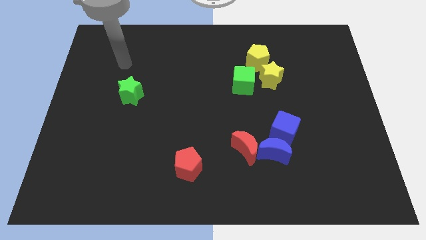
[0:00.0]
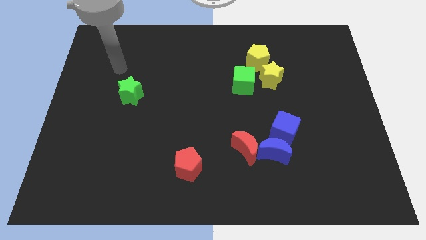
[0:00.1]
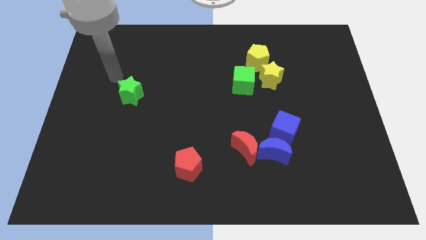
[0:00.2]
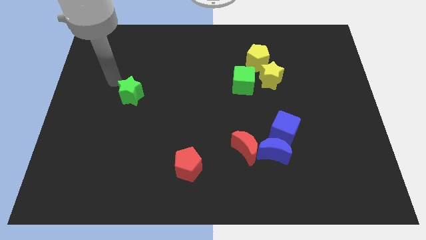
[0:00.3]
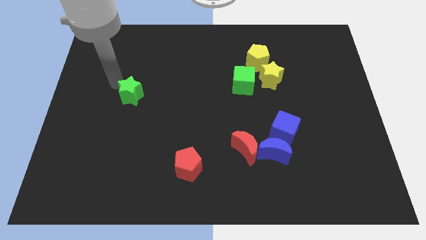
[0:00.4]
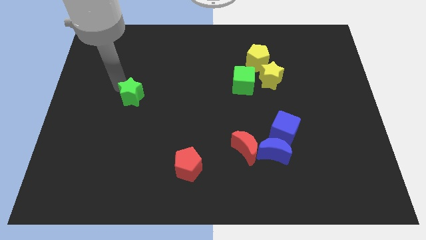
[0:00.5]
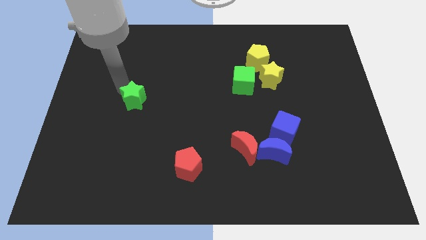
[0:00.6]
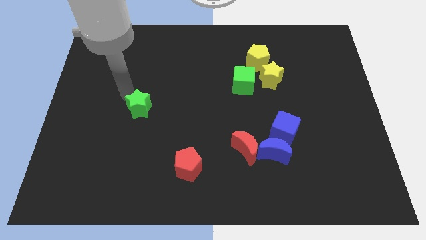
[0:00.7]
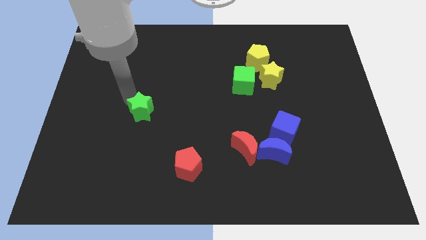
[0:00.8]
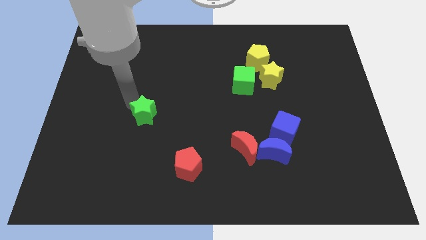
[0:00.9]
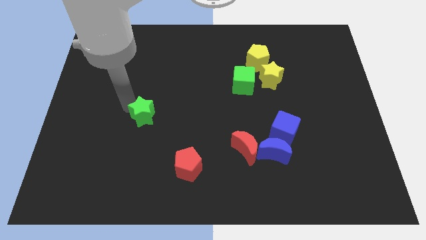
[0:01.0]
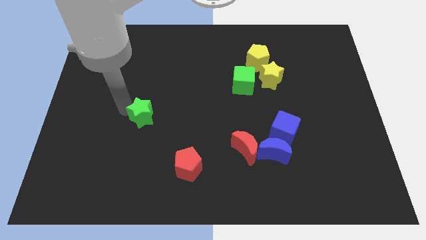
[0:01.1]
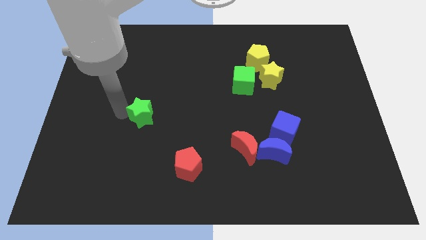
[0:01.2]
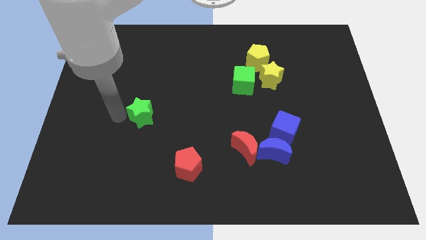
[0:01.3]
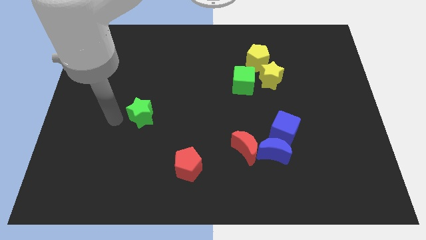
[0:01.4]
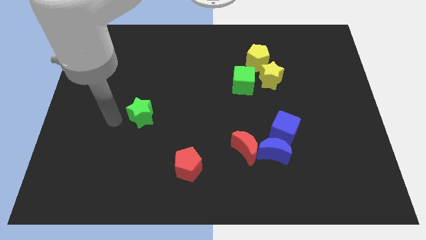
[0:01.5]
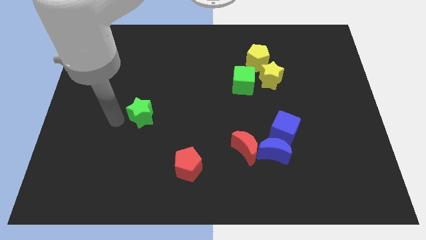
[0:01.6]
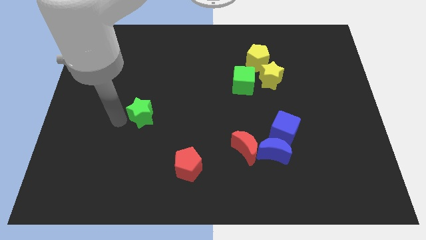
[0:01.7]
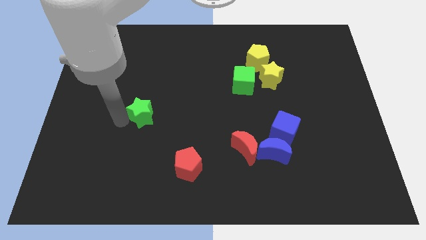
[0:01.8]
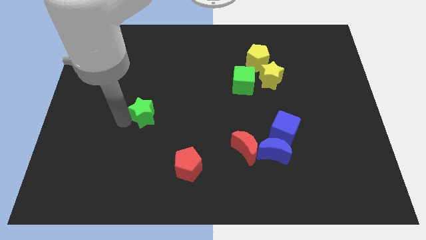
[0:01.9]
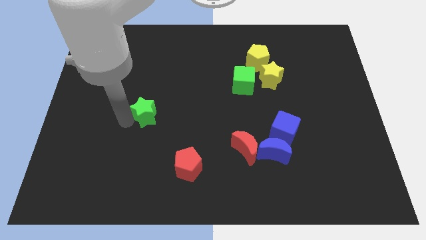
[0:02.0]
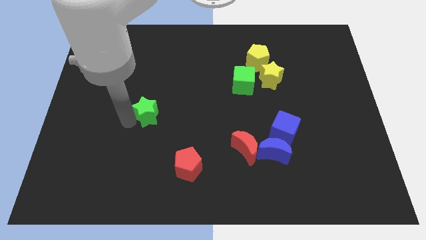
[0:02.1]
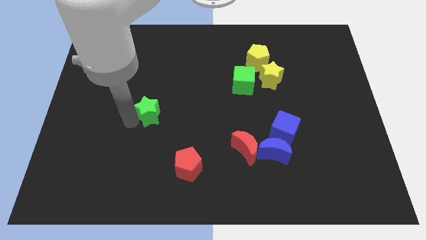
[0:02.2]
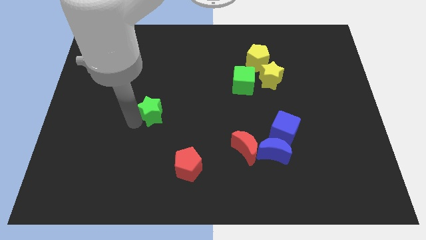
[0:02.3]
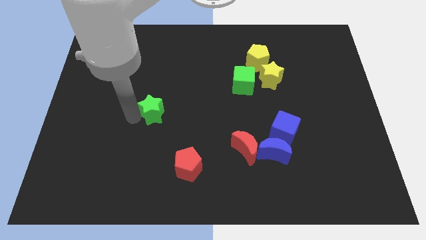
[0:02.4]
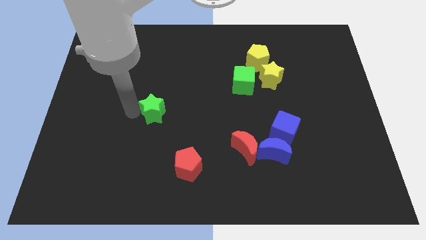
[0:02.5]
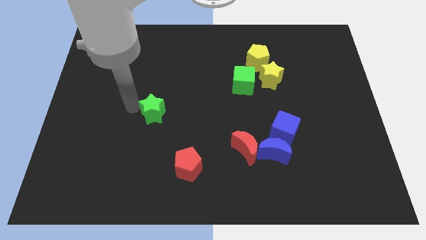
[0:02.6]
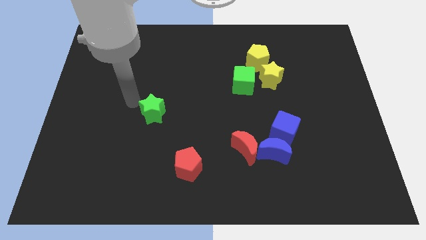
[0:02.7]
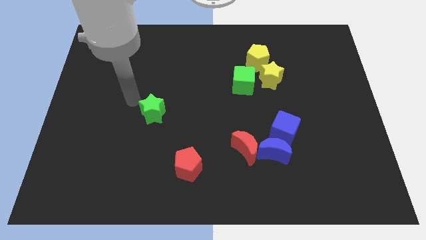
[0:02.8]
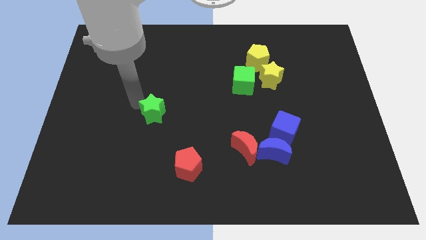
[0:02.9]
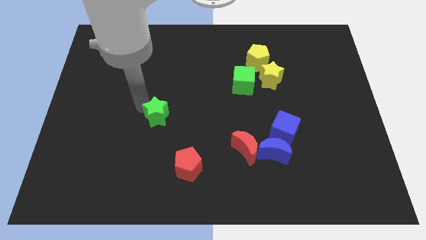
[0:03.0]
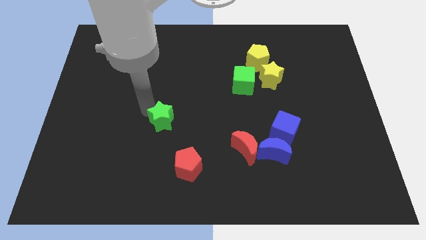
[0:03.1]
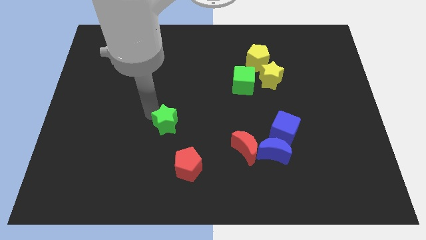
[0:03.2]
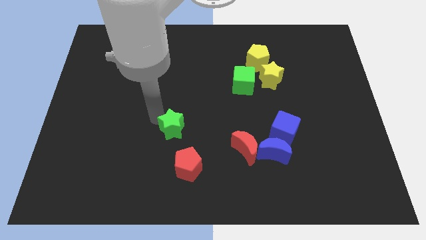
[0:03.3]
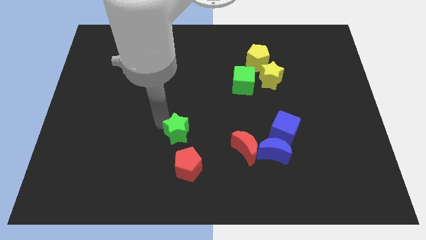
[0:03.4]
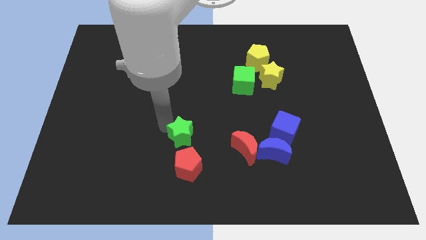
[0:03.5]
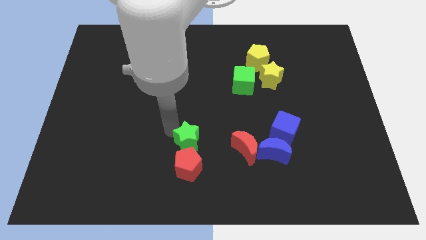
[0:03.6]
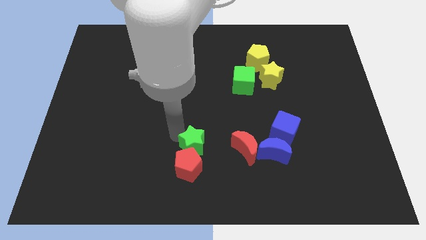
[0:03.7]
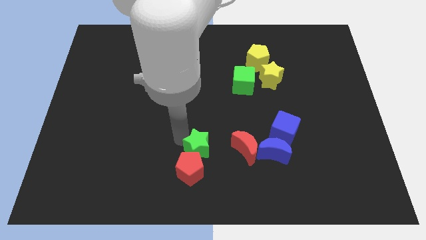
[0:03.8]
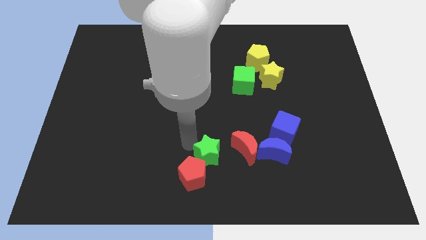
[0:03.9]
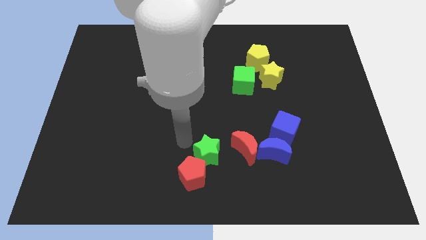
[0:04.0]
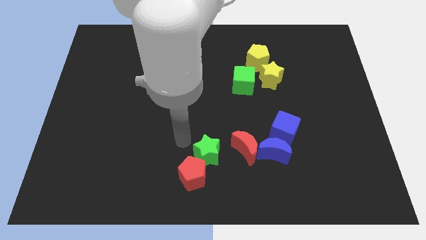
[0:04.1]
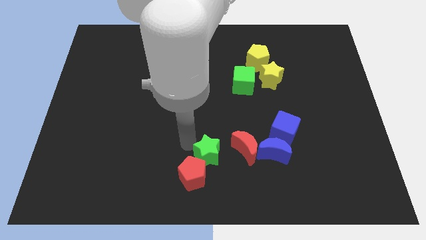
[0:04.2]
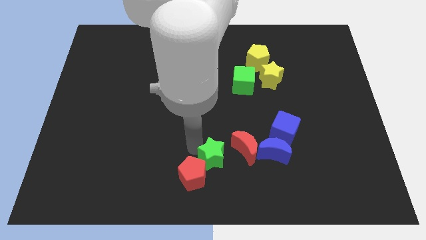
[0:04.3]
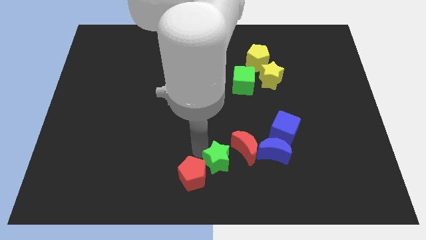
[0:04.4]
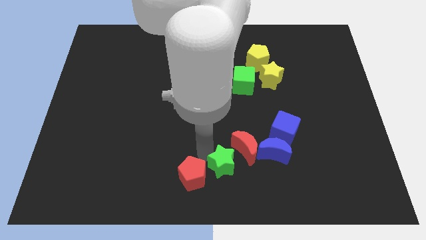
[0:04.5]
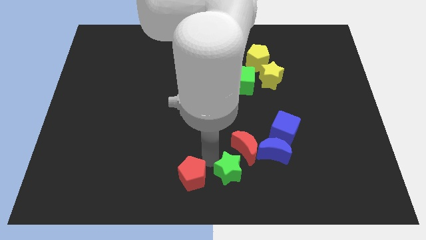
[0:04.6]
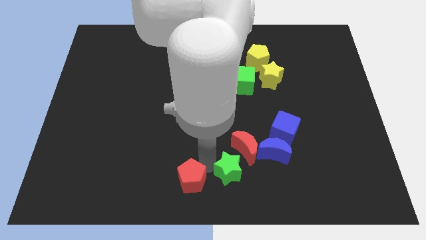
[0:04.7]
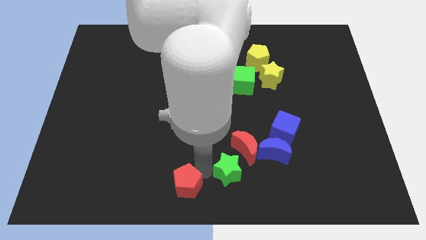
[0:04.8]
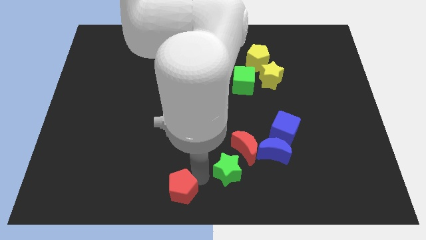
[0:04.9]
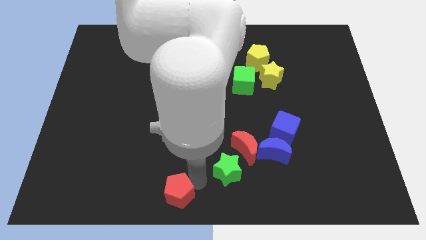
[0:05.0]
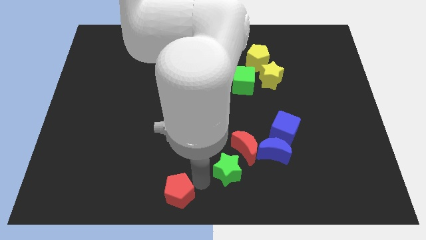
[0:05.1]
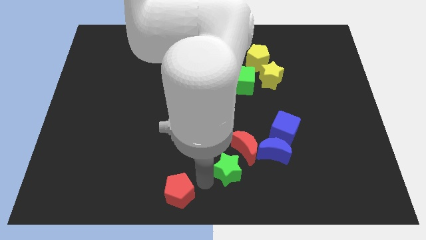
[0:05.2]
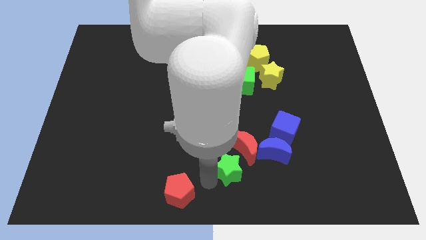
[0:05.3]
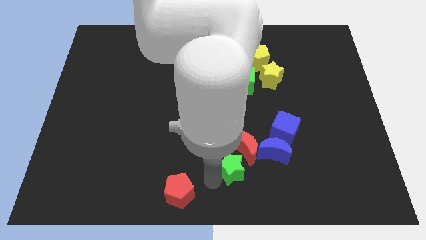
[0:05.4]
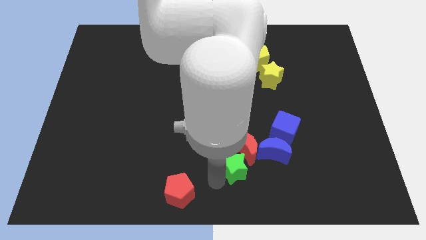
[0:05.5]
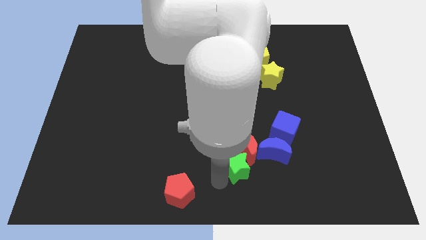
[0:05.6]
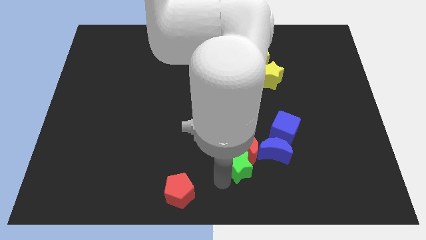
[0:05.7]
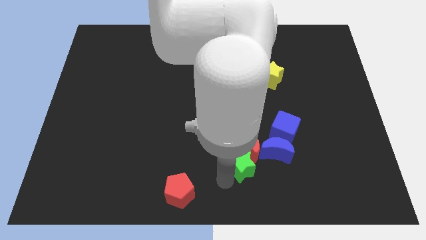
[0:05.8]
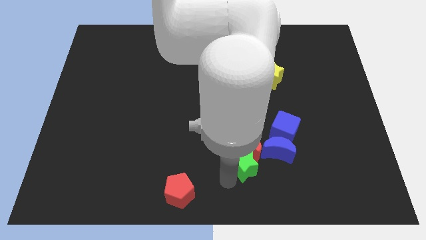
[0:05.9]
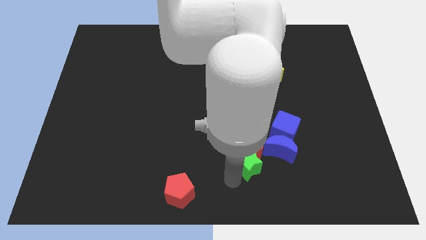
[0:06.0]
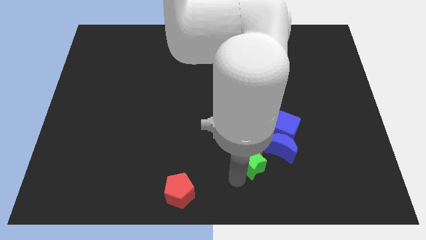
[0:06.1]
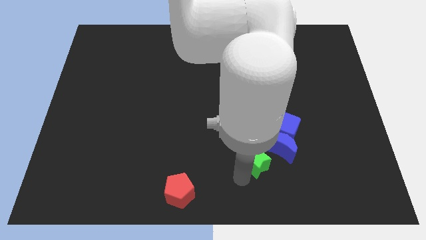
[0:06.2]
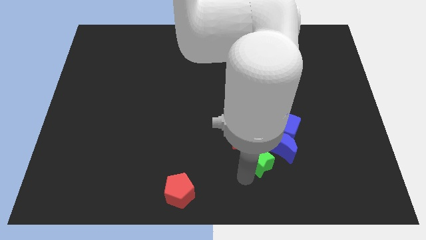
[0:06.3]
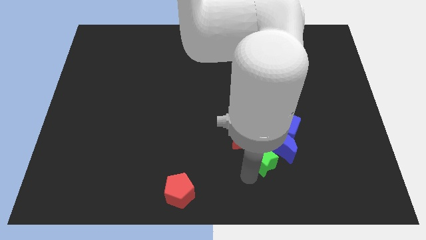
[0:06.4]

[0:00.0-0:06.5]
put the green star next to the blue moon
